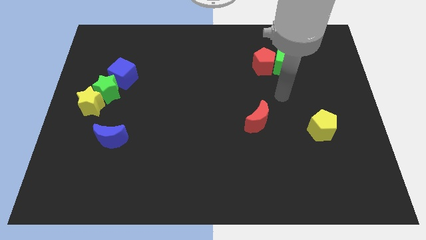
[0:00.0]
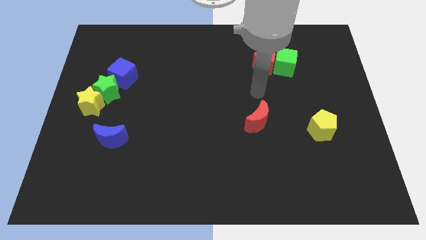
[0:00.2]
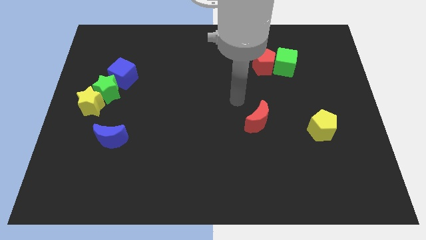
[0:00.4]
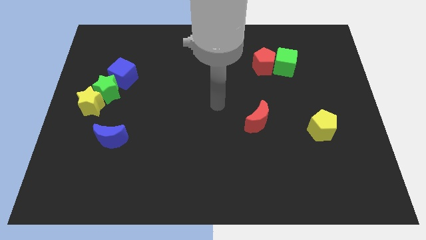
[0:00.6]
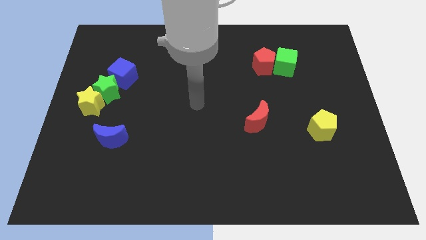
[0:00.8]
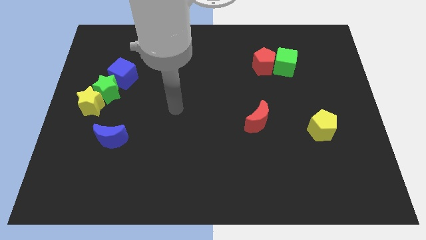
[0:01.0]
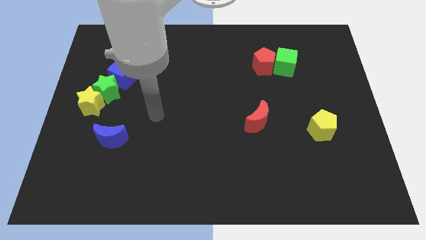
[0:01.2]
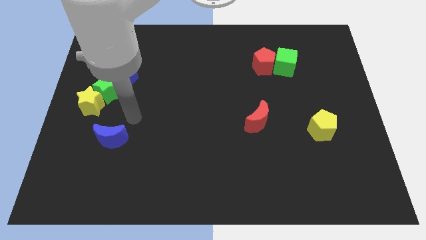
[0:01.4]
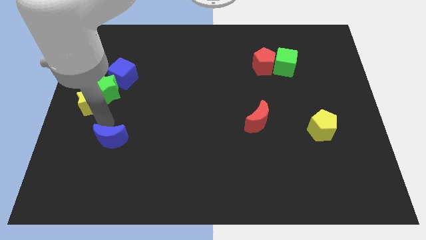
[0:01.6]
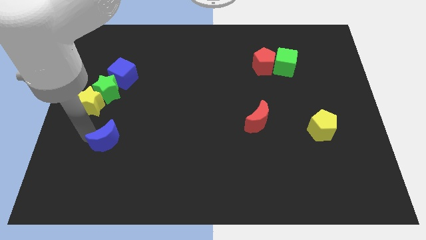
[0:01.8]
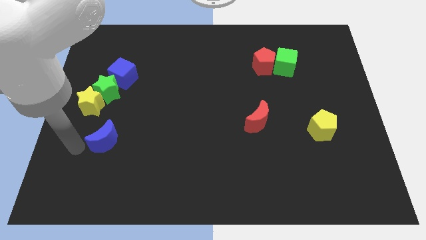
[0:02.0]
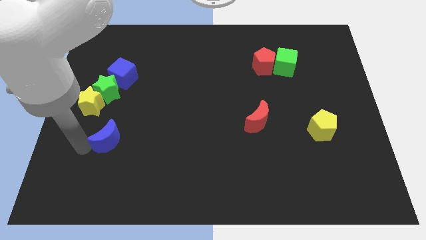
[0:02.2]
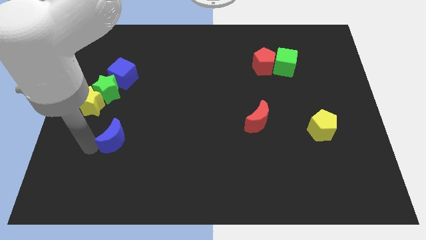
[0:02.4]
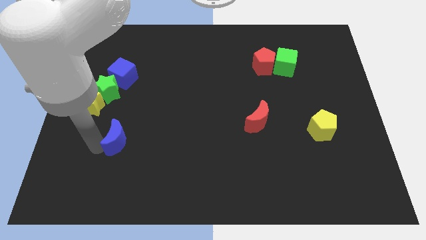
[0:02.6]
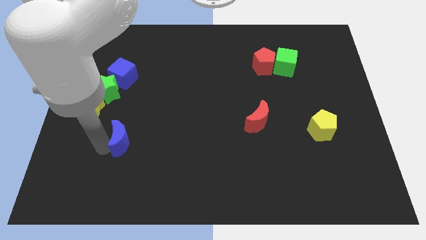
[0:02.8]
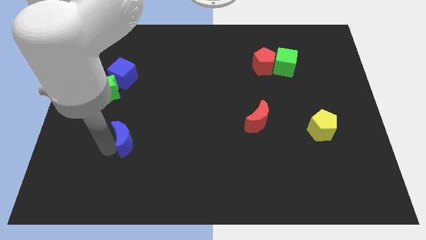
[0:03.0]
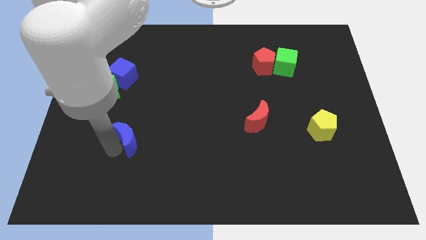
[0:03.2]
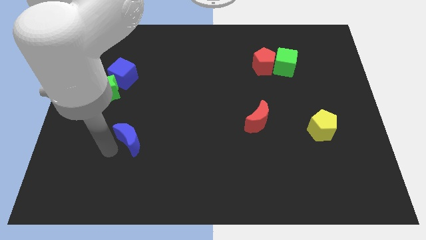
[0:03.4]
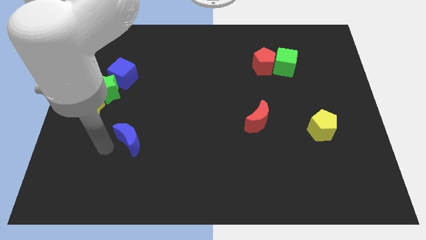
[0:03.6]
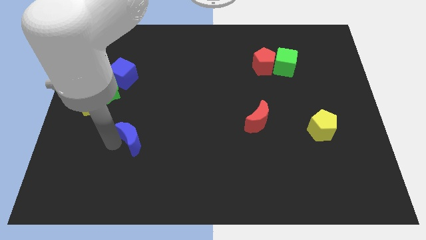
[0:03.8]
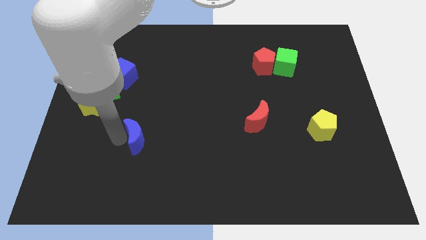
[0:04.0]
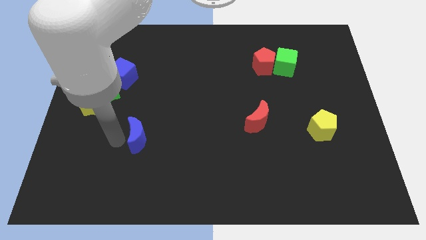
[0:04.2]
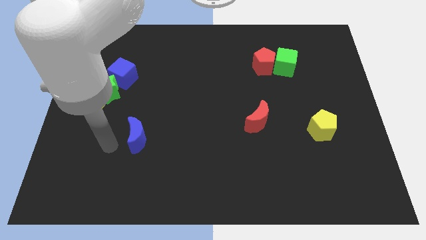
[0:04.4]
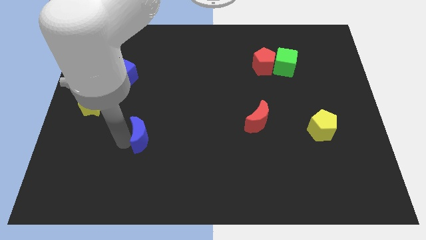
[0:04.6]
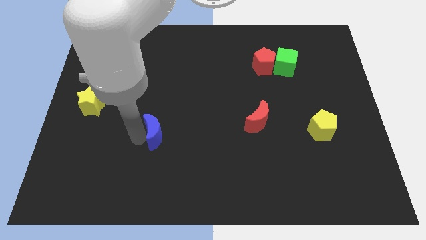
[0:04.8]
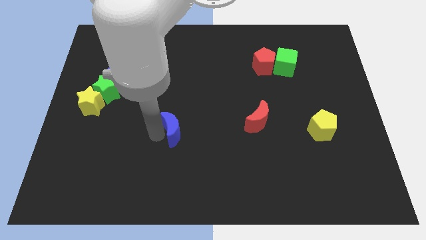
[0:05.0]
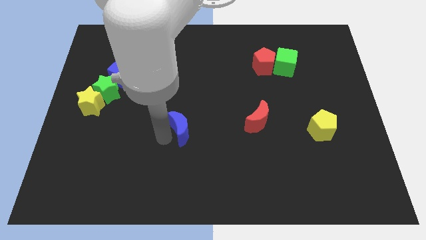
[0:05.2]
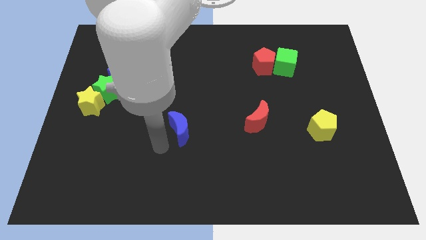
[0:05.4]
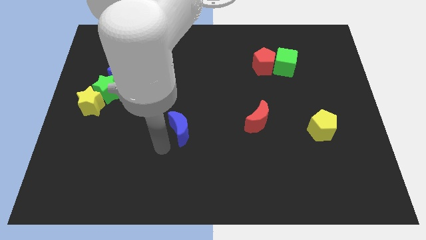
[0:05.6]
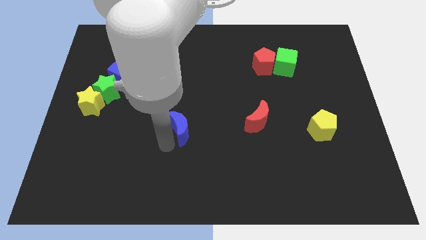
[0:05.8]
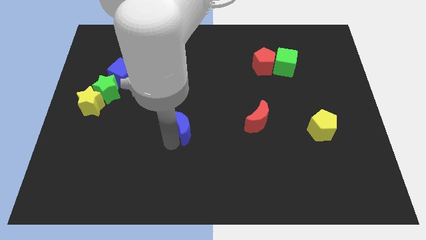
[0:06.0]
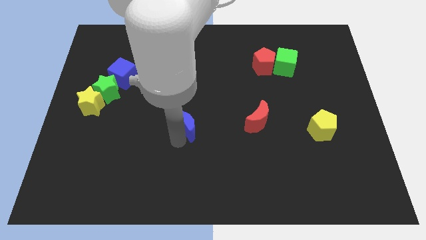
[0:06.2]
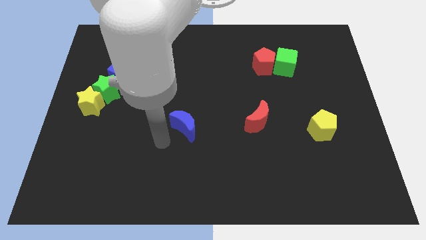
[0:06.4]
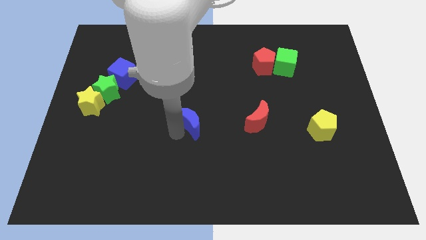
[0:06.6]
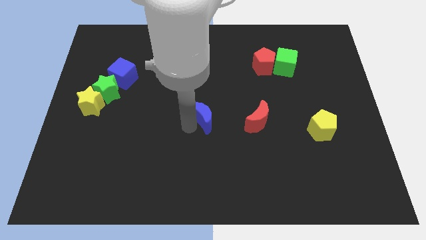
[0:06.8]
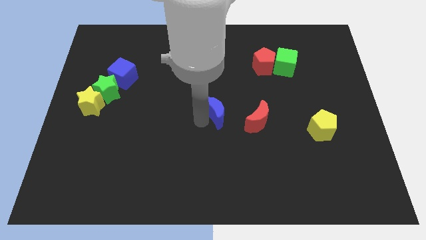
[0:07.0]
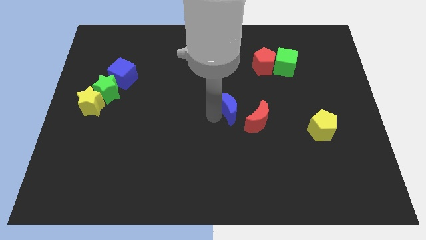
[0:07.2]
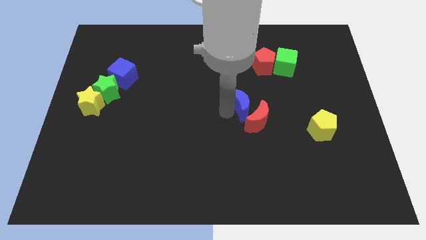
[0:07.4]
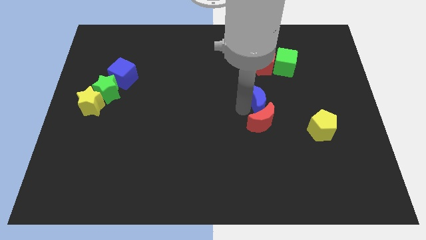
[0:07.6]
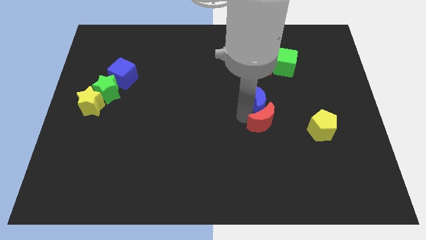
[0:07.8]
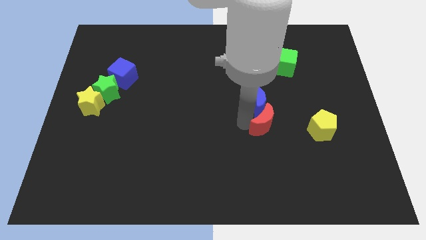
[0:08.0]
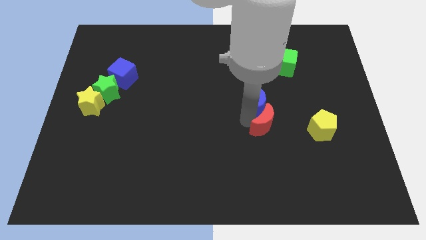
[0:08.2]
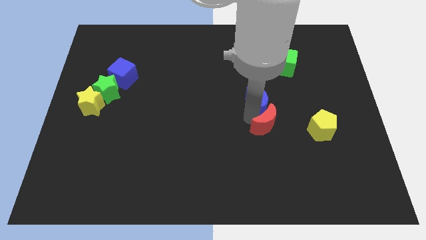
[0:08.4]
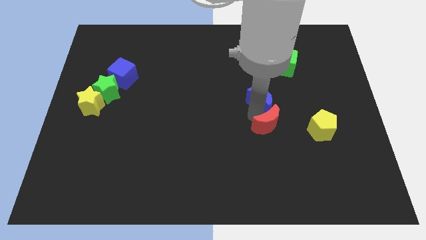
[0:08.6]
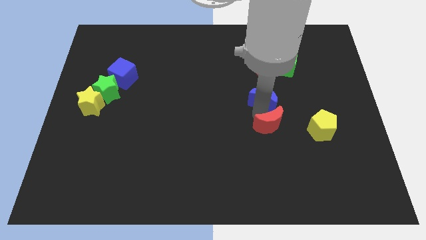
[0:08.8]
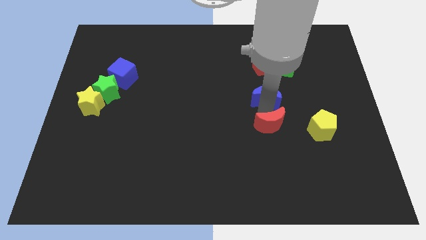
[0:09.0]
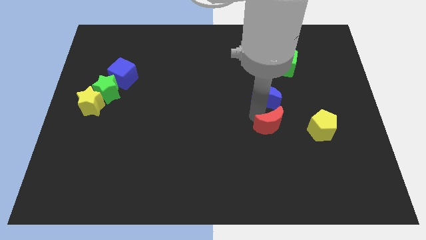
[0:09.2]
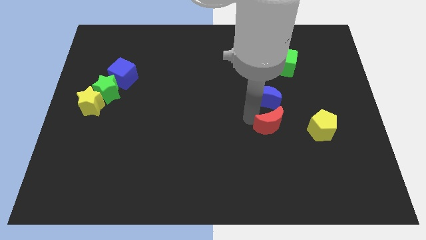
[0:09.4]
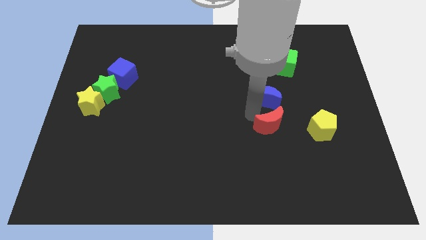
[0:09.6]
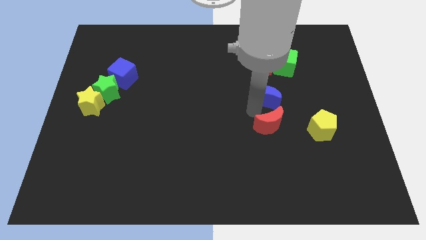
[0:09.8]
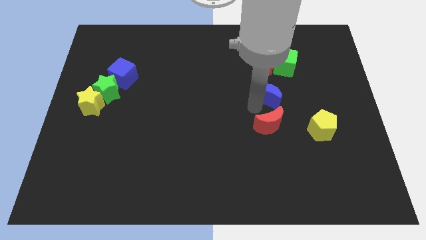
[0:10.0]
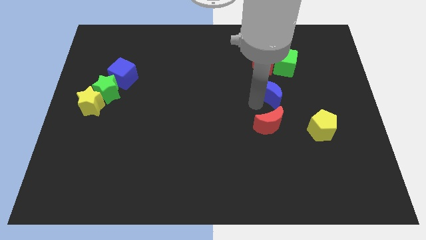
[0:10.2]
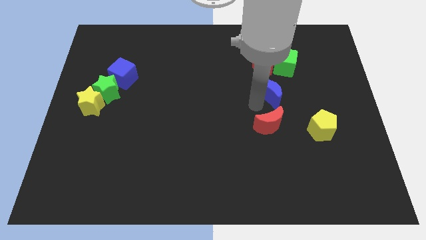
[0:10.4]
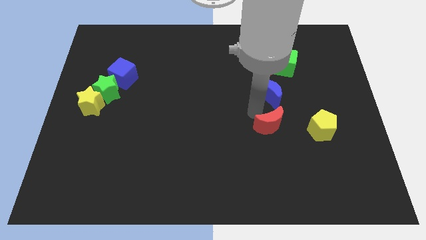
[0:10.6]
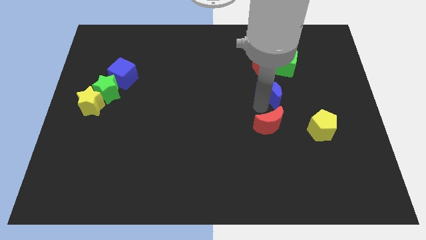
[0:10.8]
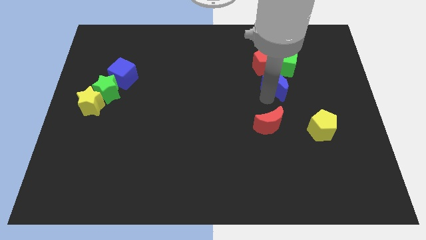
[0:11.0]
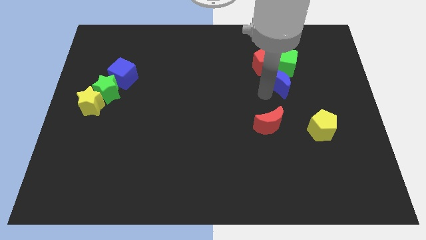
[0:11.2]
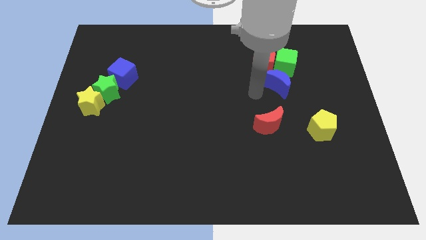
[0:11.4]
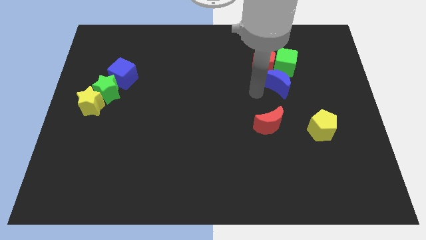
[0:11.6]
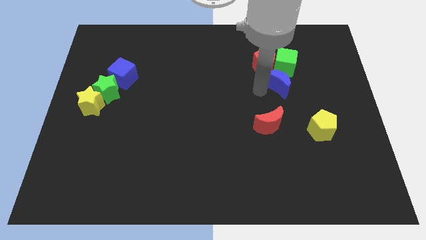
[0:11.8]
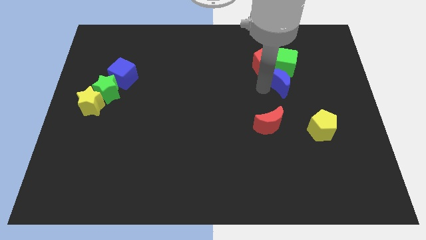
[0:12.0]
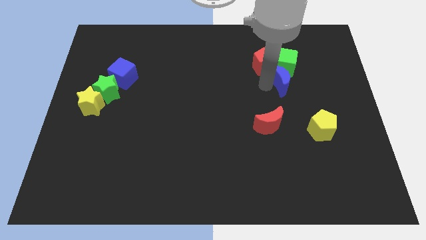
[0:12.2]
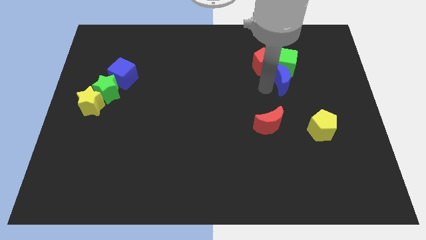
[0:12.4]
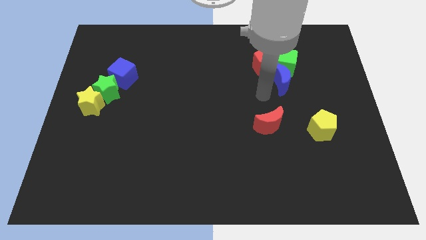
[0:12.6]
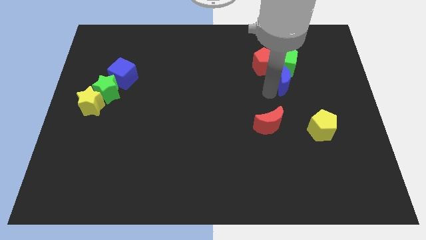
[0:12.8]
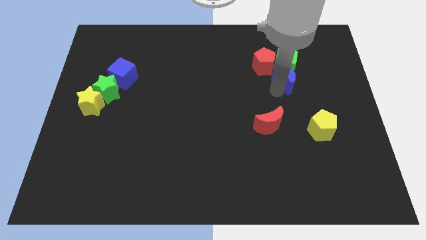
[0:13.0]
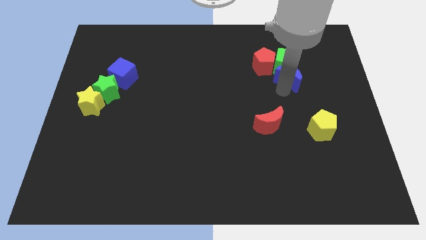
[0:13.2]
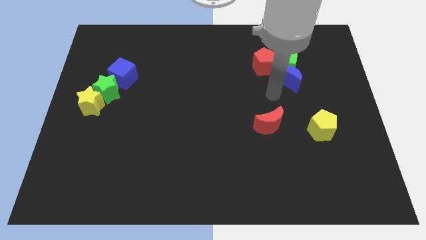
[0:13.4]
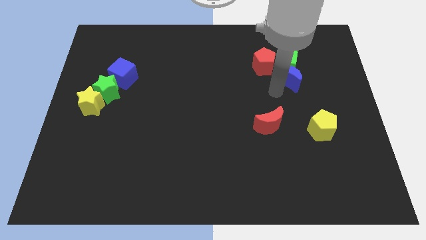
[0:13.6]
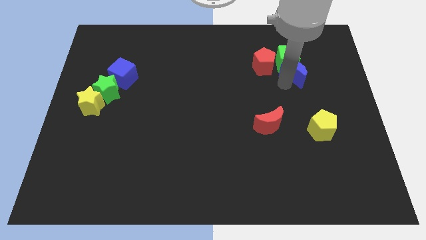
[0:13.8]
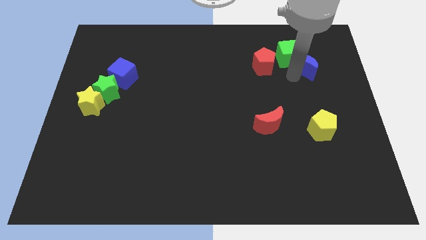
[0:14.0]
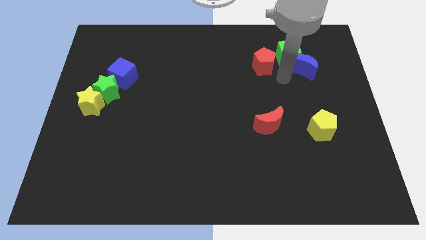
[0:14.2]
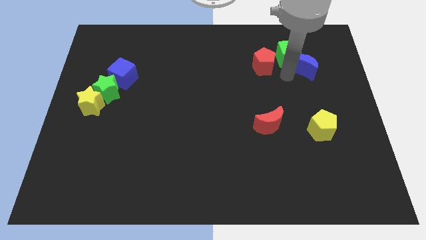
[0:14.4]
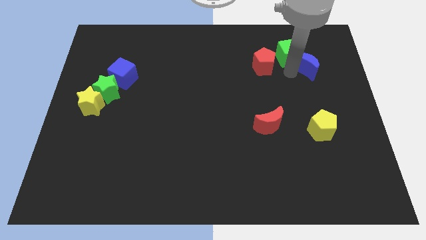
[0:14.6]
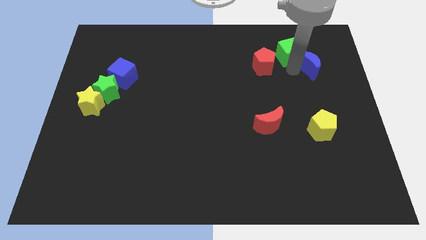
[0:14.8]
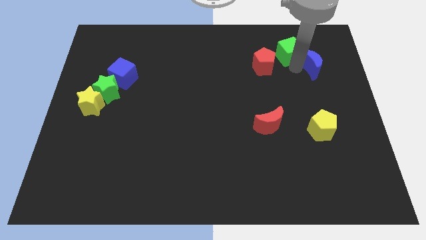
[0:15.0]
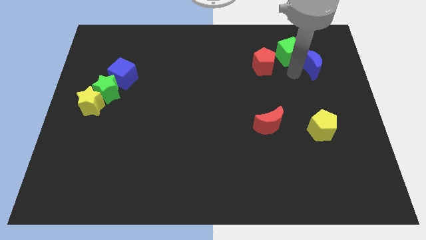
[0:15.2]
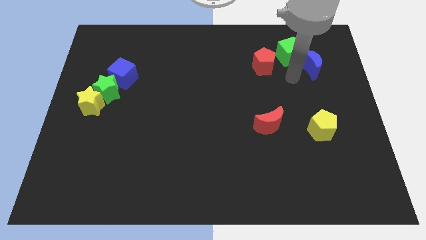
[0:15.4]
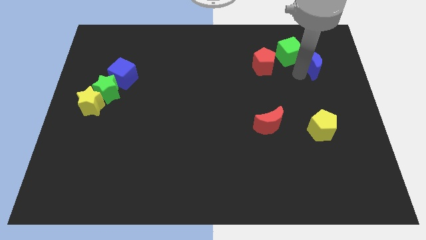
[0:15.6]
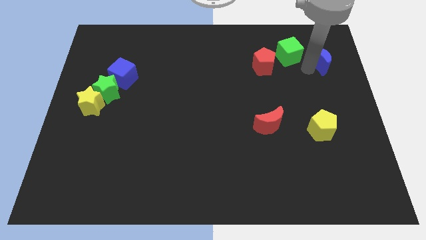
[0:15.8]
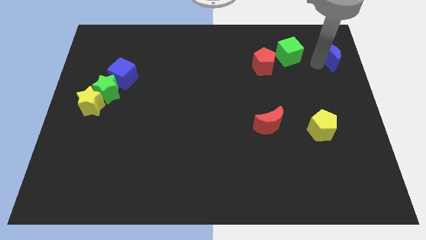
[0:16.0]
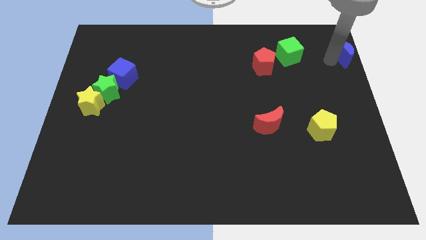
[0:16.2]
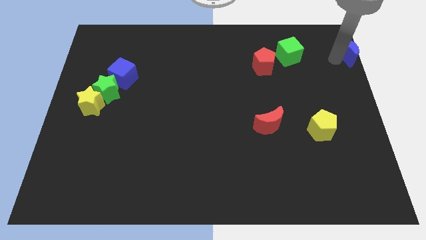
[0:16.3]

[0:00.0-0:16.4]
move the blue moon to the top right corner
